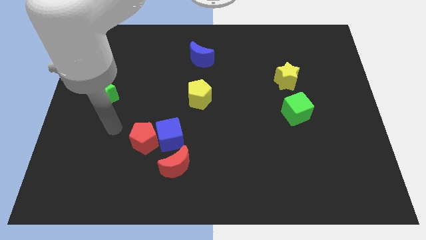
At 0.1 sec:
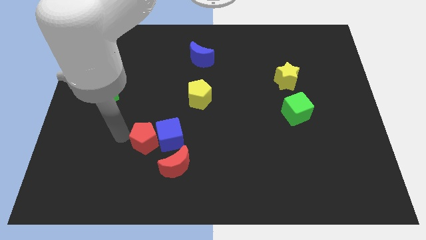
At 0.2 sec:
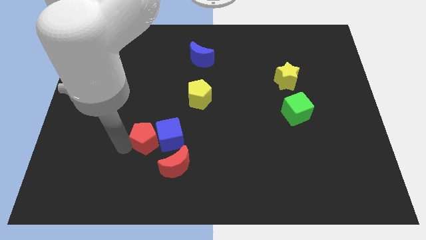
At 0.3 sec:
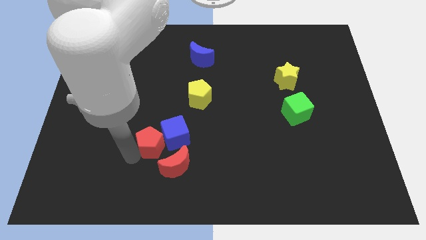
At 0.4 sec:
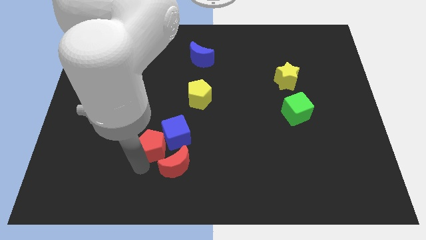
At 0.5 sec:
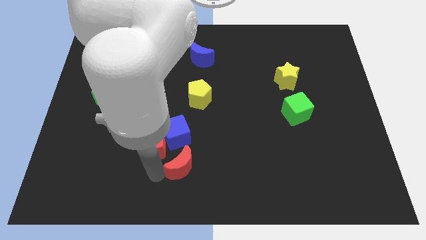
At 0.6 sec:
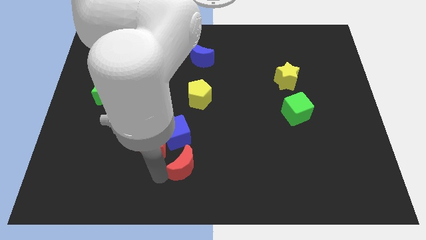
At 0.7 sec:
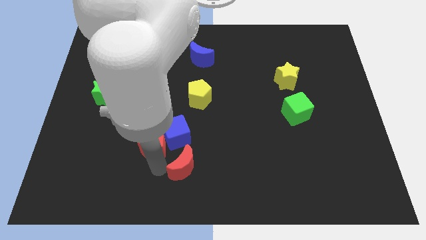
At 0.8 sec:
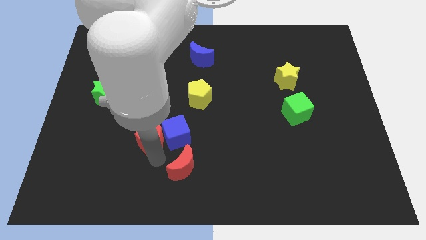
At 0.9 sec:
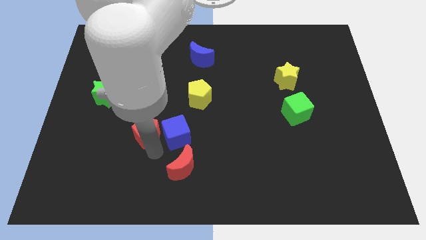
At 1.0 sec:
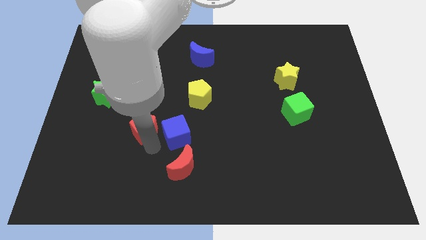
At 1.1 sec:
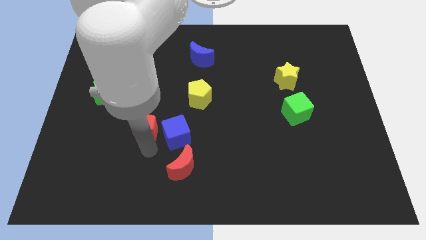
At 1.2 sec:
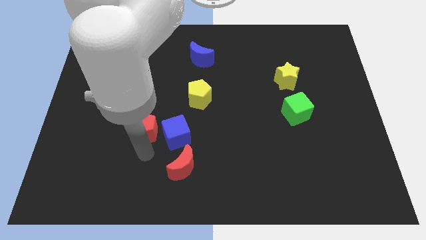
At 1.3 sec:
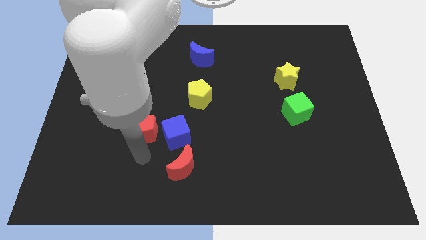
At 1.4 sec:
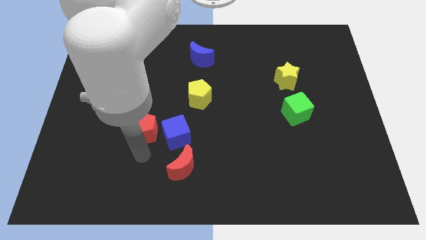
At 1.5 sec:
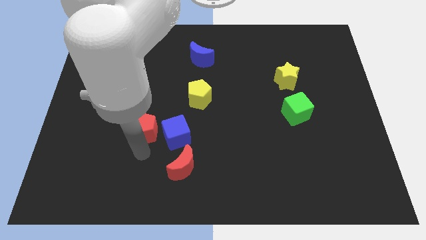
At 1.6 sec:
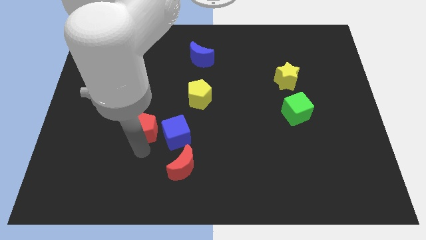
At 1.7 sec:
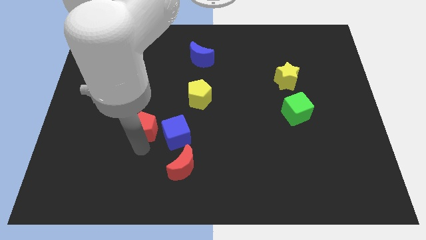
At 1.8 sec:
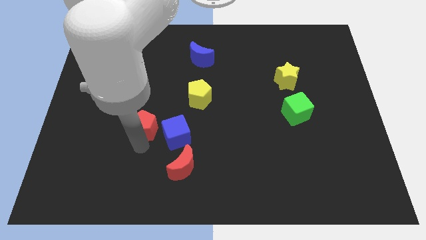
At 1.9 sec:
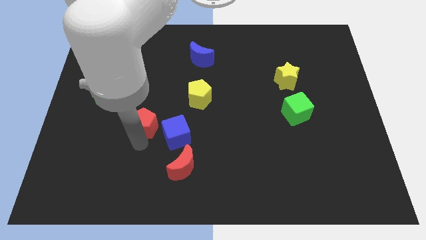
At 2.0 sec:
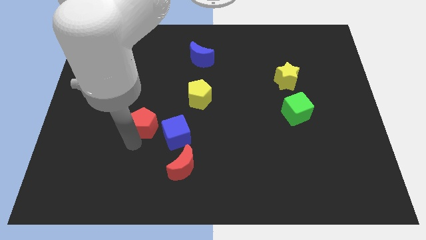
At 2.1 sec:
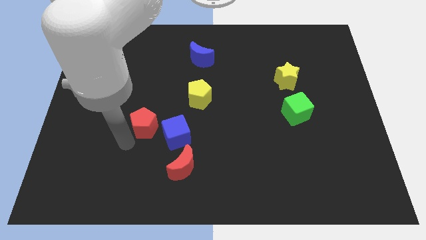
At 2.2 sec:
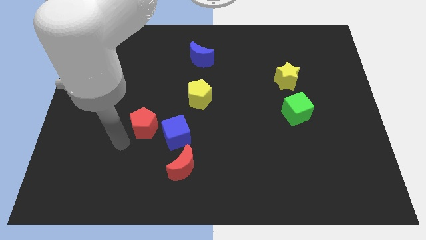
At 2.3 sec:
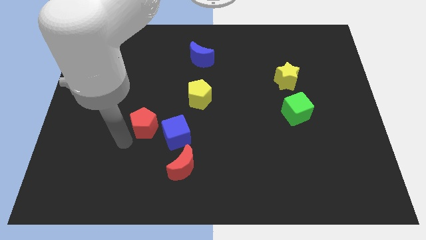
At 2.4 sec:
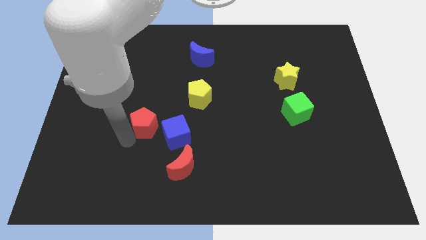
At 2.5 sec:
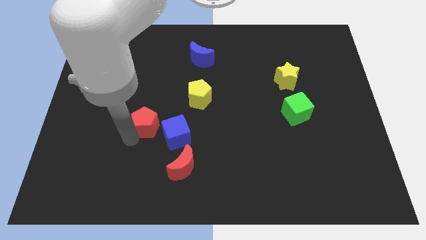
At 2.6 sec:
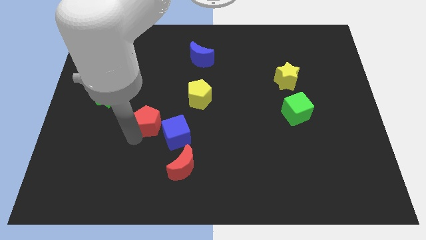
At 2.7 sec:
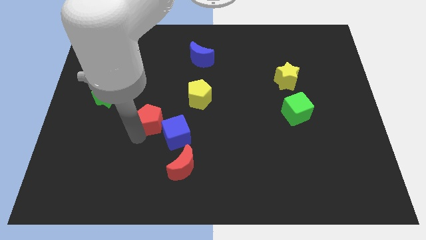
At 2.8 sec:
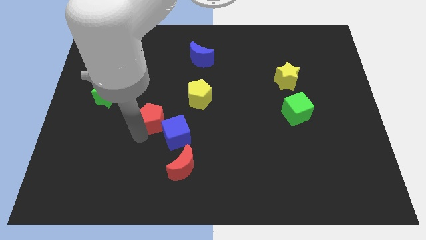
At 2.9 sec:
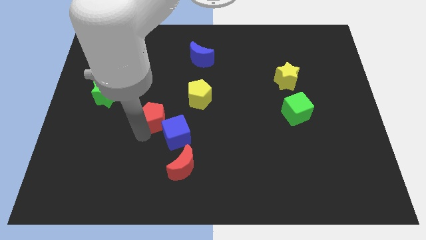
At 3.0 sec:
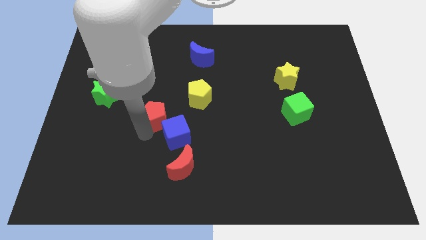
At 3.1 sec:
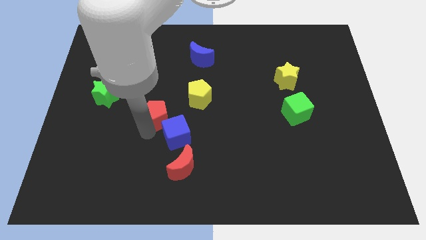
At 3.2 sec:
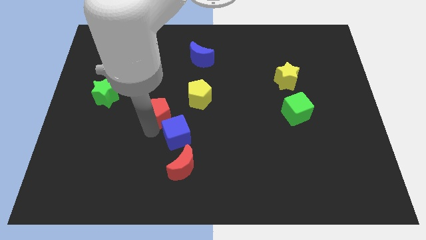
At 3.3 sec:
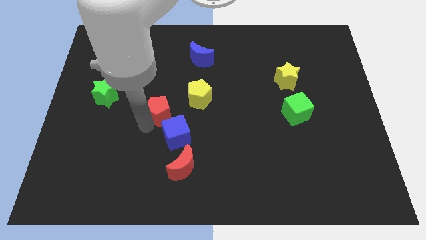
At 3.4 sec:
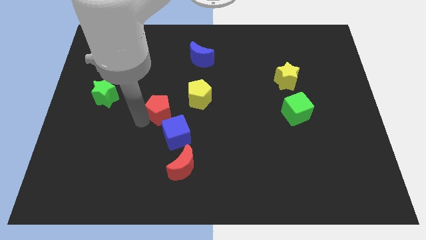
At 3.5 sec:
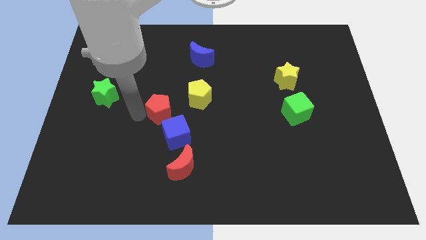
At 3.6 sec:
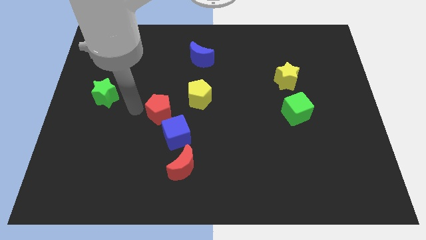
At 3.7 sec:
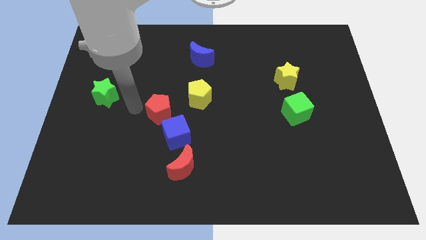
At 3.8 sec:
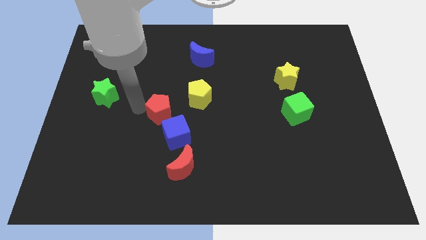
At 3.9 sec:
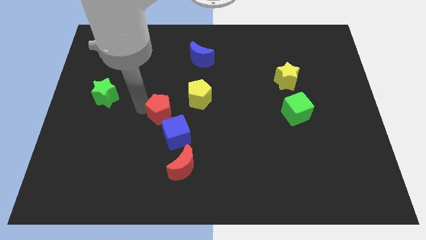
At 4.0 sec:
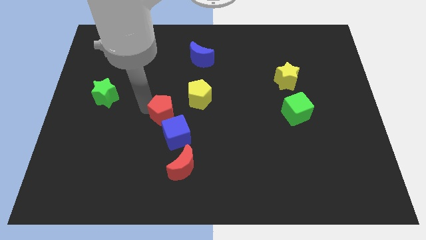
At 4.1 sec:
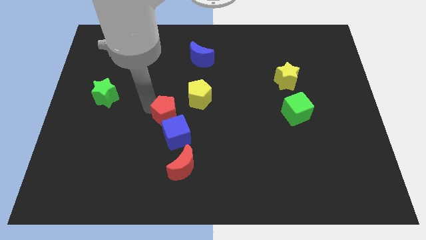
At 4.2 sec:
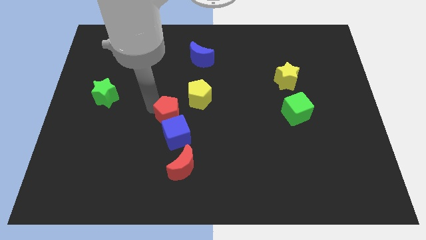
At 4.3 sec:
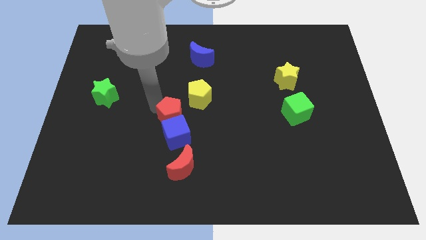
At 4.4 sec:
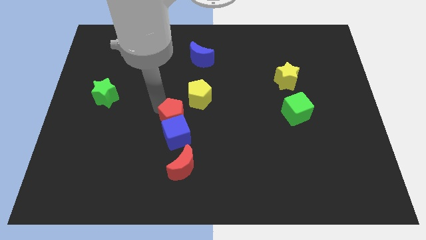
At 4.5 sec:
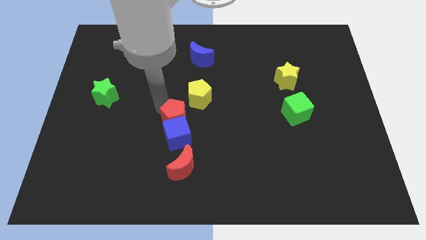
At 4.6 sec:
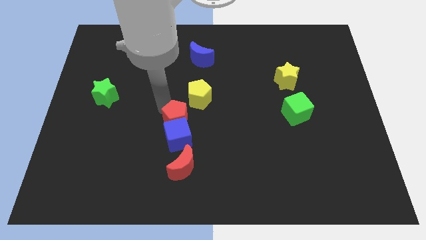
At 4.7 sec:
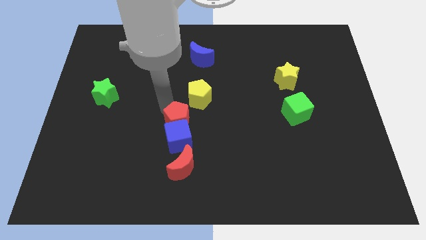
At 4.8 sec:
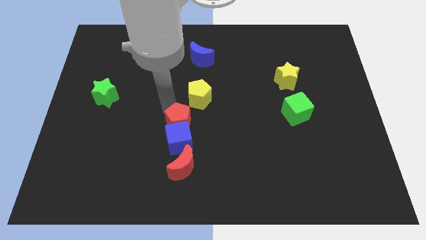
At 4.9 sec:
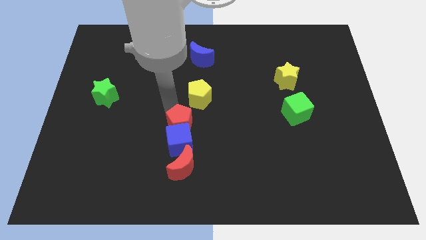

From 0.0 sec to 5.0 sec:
move the red pentagon right slightly

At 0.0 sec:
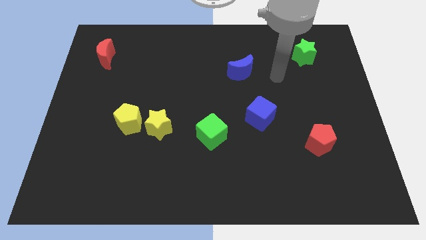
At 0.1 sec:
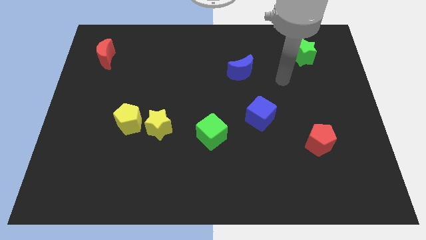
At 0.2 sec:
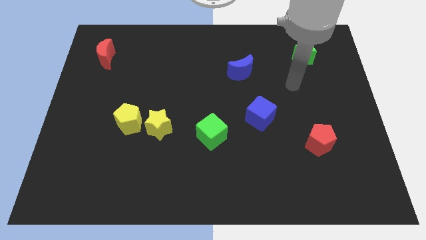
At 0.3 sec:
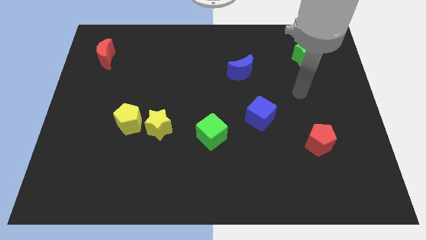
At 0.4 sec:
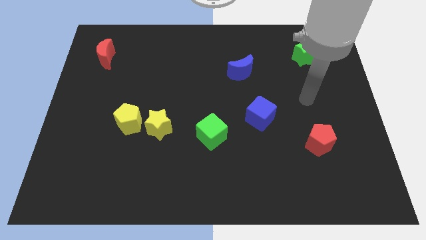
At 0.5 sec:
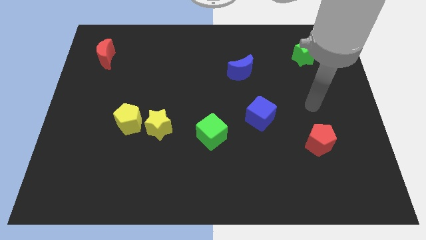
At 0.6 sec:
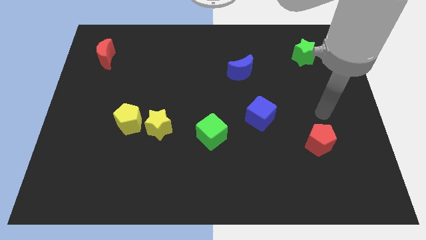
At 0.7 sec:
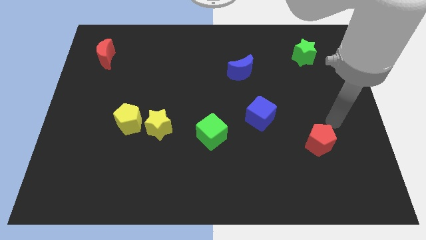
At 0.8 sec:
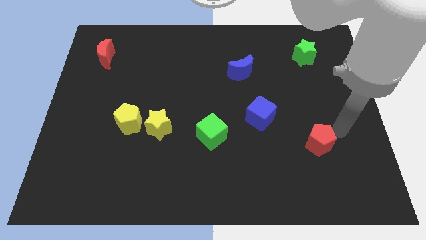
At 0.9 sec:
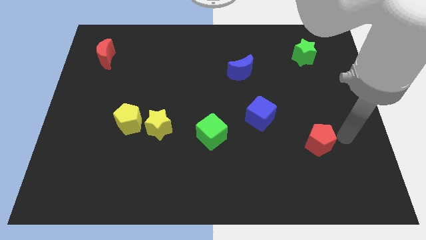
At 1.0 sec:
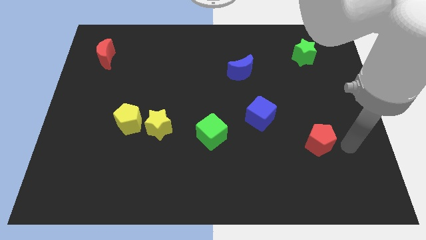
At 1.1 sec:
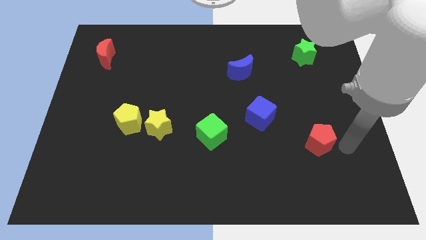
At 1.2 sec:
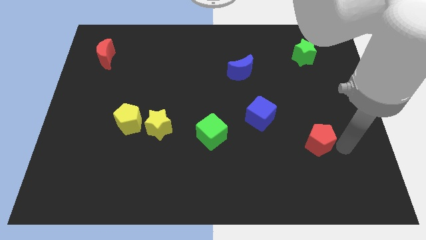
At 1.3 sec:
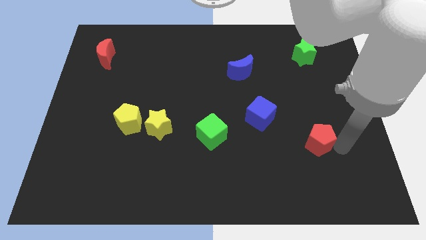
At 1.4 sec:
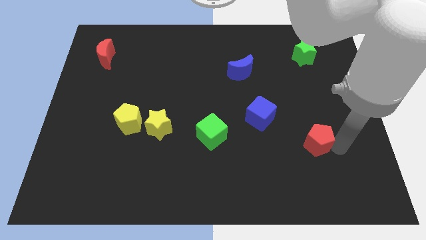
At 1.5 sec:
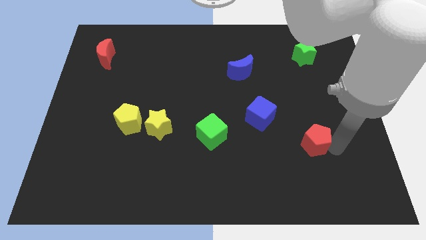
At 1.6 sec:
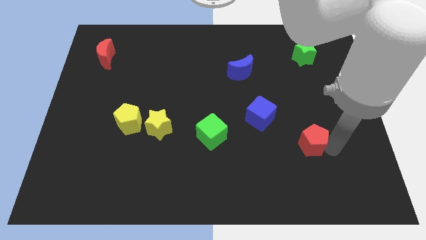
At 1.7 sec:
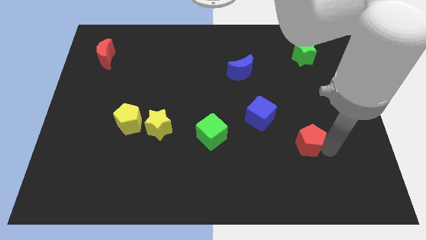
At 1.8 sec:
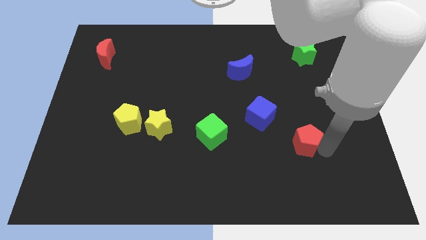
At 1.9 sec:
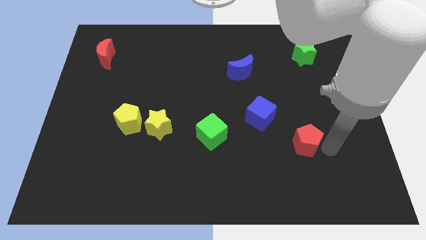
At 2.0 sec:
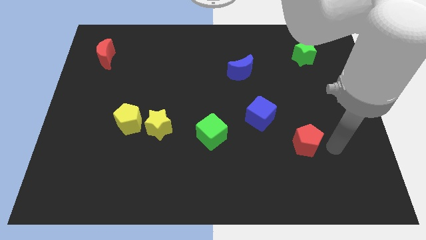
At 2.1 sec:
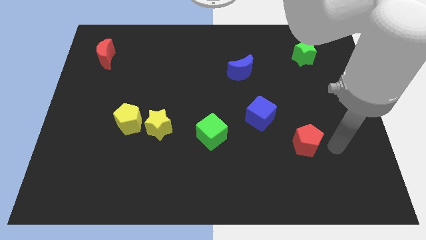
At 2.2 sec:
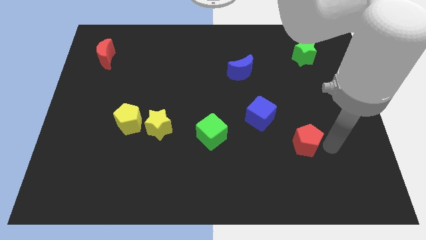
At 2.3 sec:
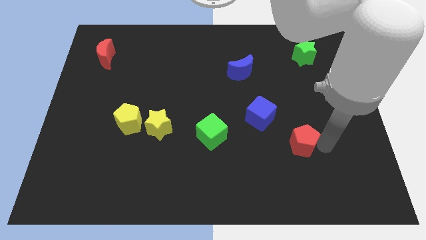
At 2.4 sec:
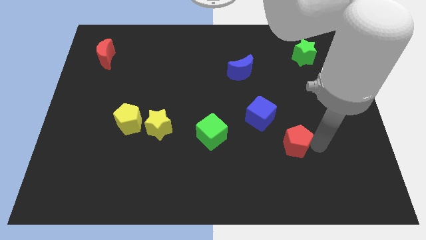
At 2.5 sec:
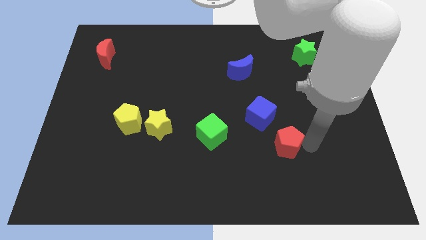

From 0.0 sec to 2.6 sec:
move the red pentagon somewhat to the left

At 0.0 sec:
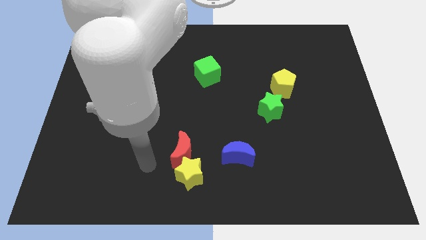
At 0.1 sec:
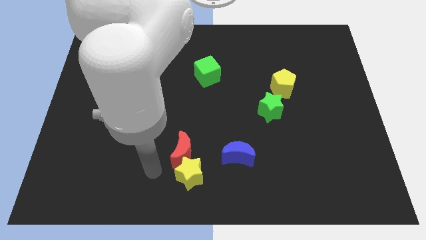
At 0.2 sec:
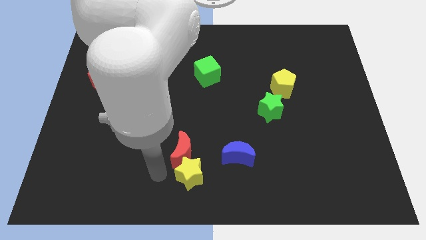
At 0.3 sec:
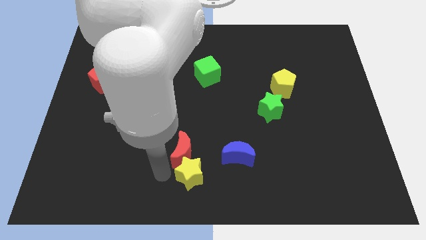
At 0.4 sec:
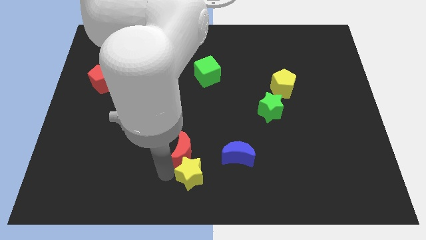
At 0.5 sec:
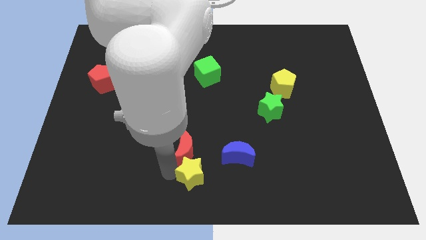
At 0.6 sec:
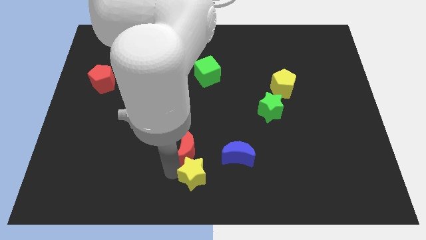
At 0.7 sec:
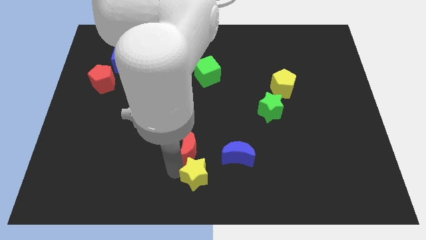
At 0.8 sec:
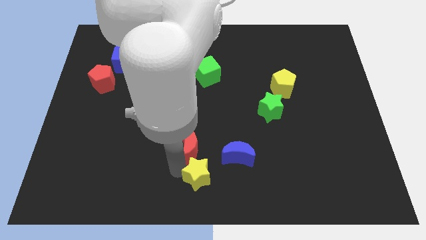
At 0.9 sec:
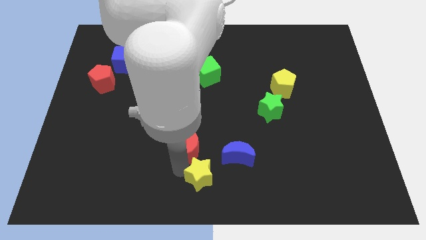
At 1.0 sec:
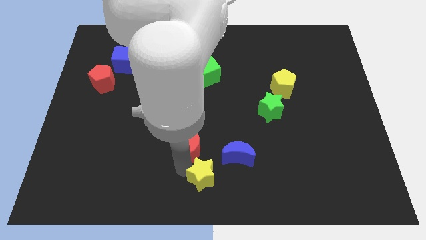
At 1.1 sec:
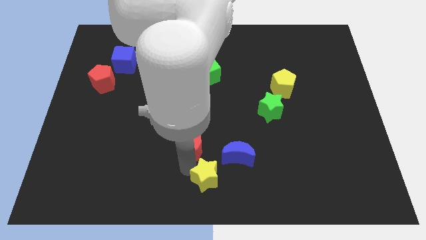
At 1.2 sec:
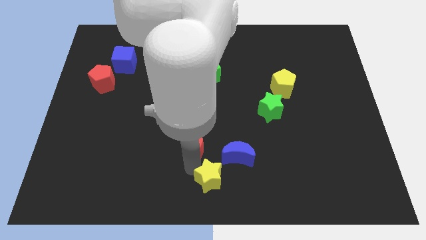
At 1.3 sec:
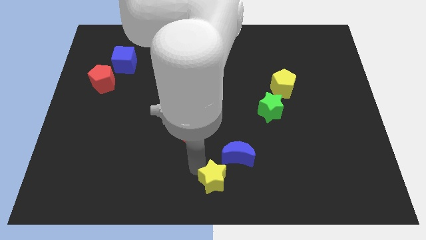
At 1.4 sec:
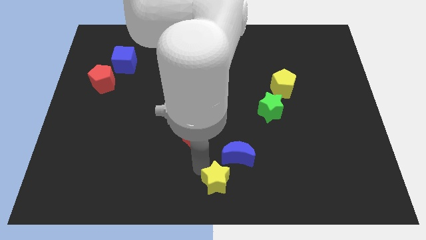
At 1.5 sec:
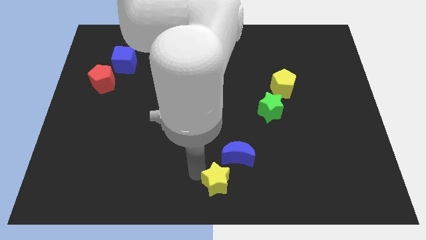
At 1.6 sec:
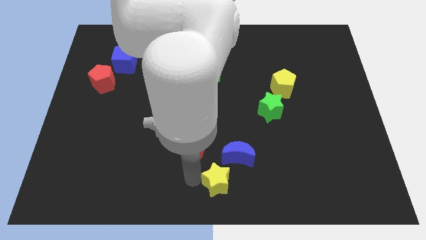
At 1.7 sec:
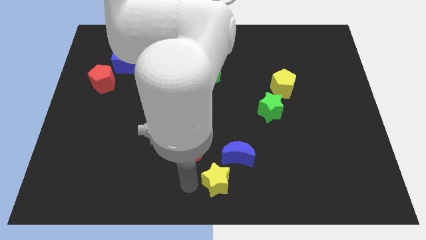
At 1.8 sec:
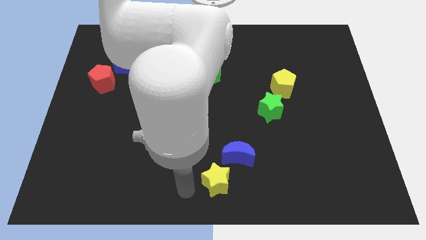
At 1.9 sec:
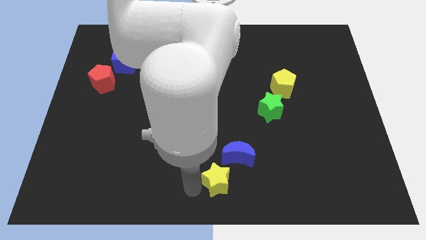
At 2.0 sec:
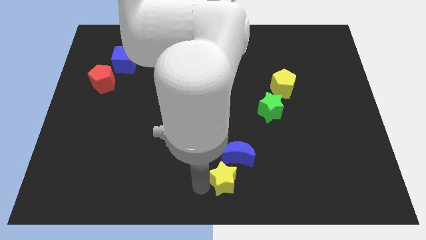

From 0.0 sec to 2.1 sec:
slightly move the yellow star to the right
